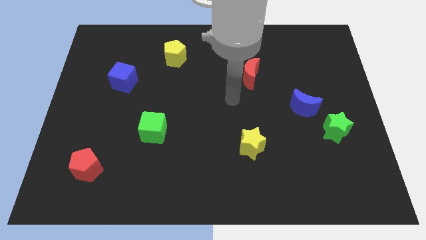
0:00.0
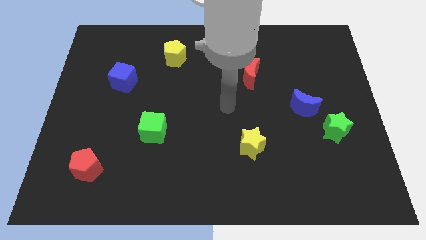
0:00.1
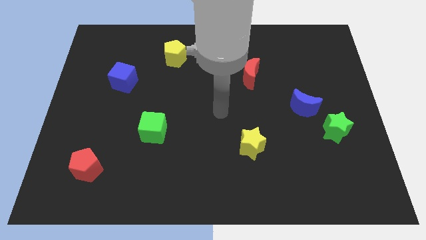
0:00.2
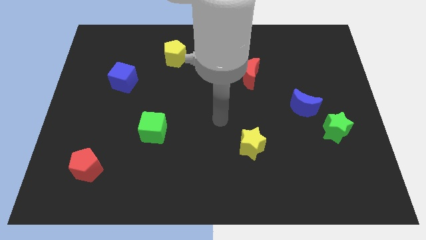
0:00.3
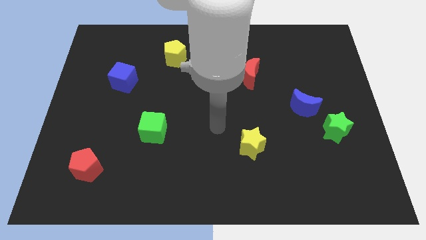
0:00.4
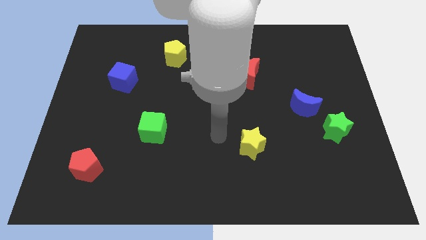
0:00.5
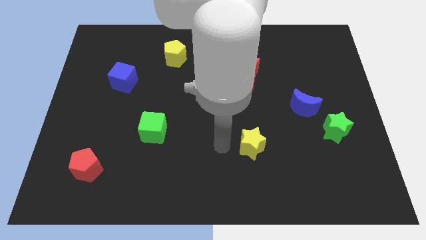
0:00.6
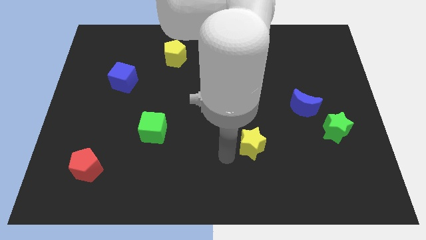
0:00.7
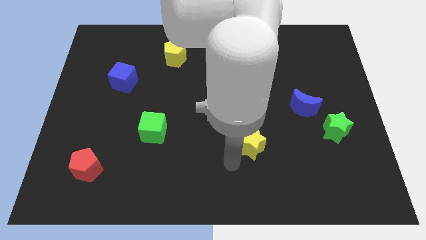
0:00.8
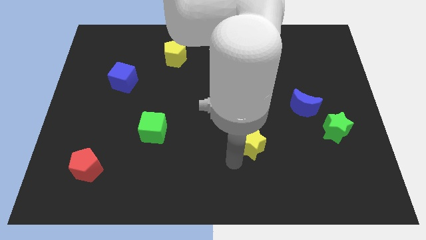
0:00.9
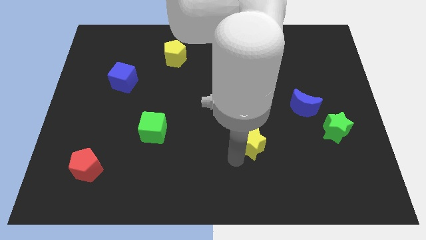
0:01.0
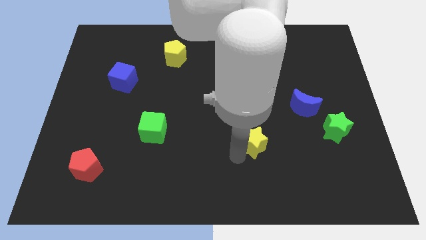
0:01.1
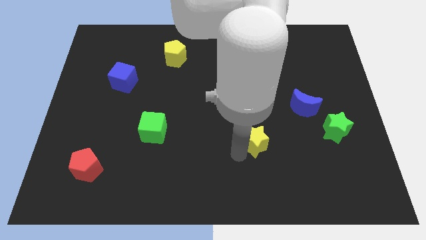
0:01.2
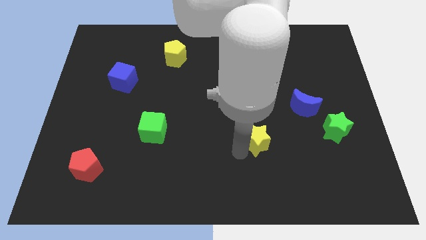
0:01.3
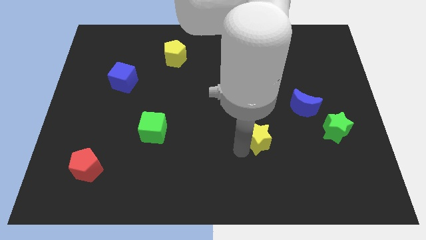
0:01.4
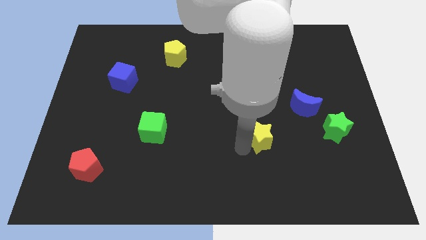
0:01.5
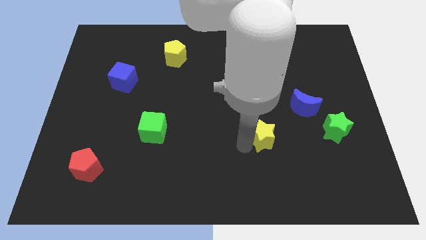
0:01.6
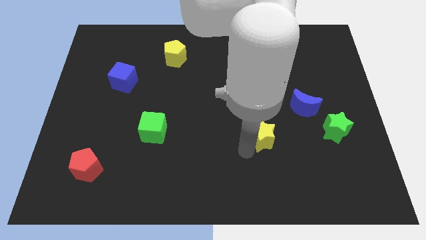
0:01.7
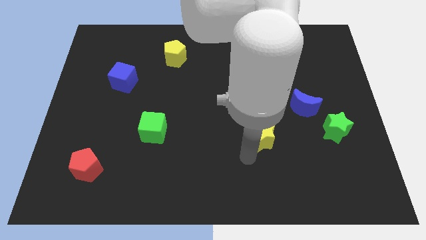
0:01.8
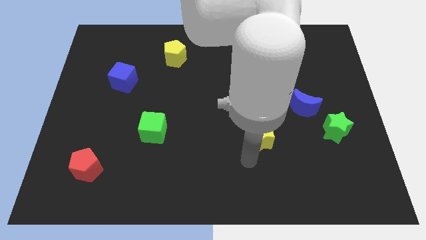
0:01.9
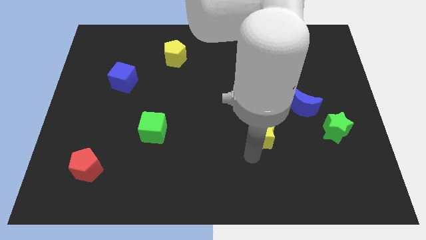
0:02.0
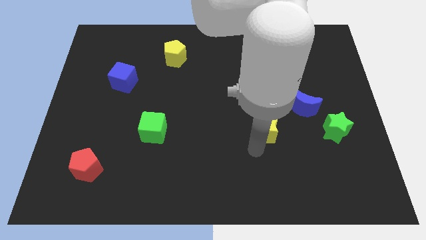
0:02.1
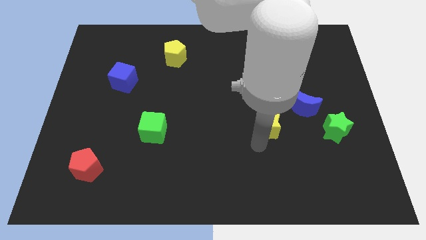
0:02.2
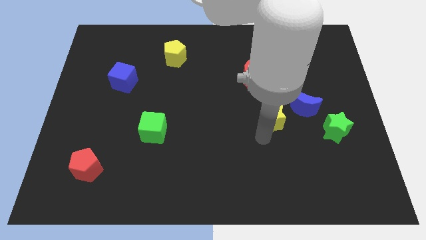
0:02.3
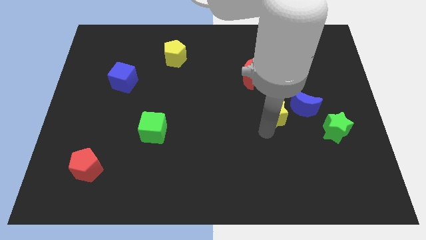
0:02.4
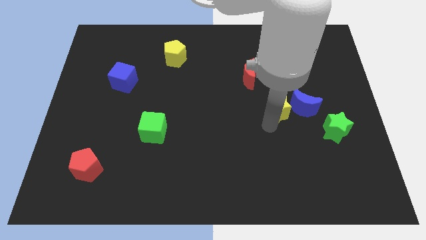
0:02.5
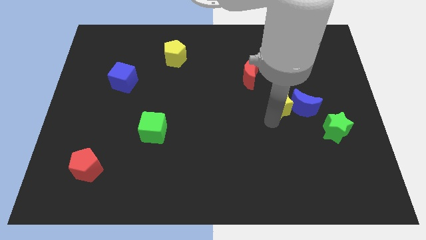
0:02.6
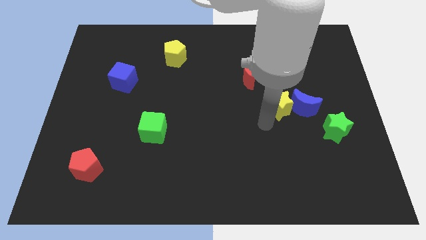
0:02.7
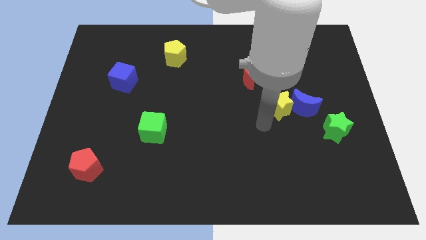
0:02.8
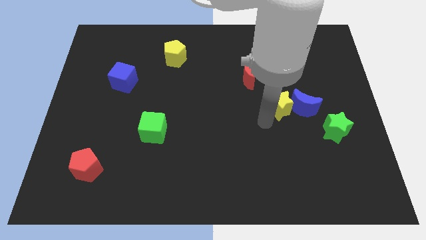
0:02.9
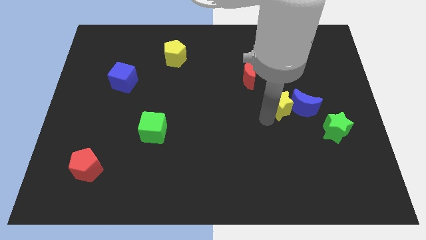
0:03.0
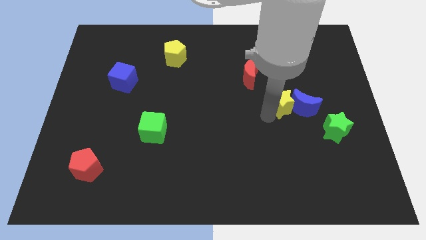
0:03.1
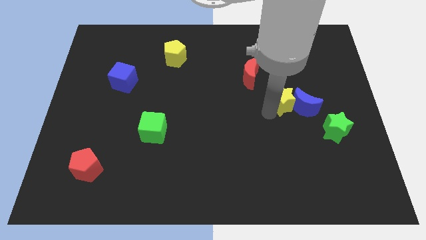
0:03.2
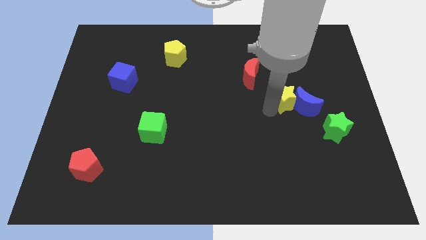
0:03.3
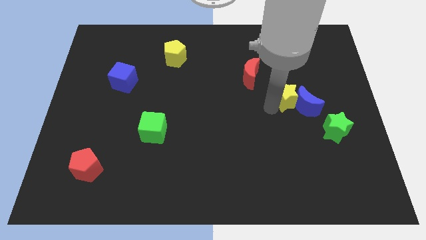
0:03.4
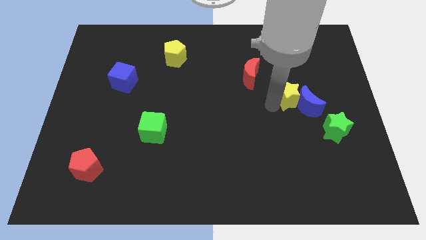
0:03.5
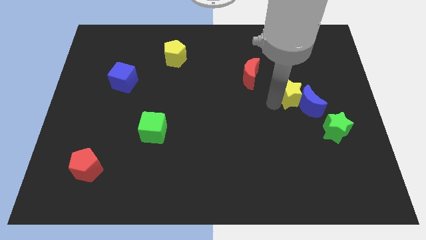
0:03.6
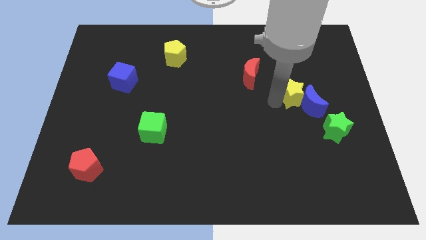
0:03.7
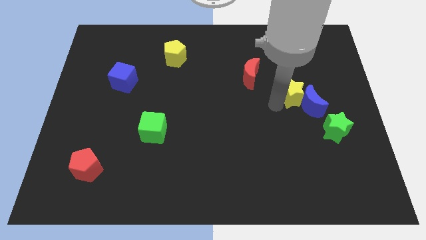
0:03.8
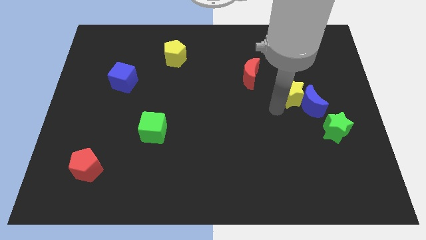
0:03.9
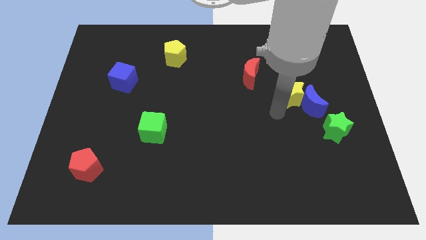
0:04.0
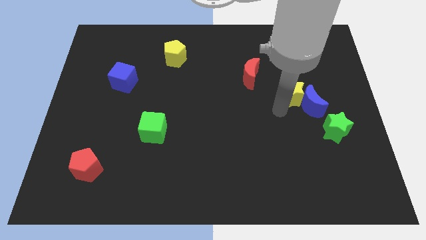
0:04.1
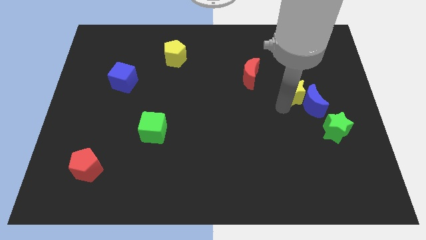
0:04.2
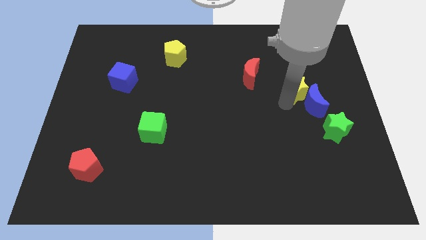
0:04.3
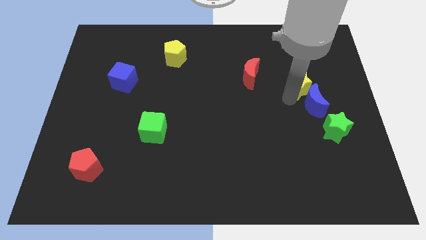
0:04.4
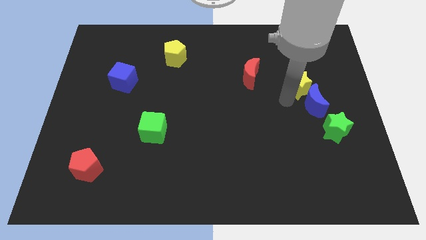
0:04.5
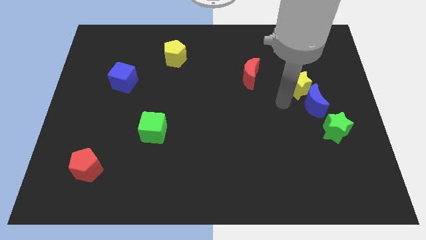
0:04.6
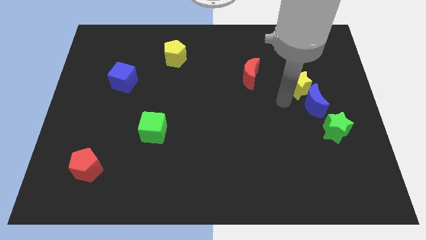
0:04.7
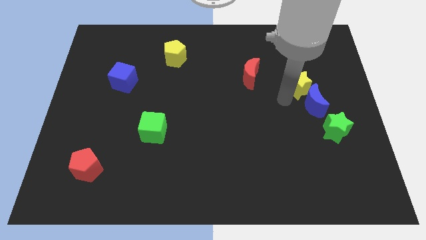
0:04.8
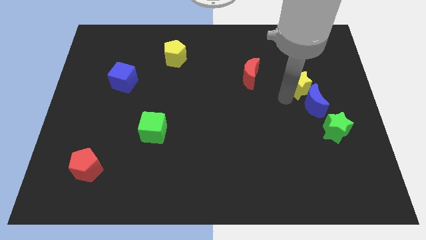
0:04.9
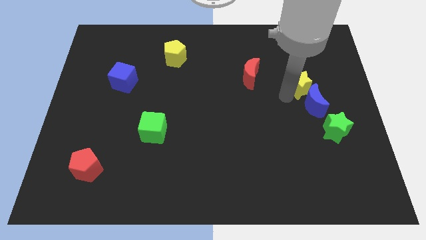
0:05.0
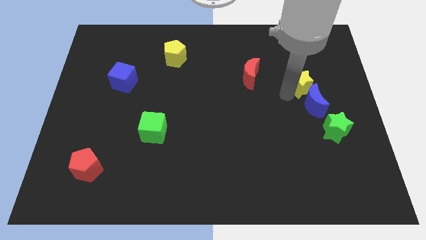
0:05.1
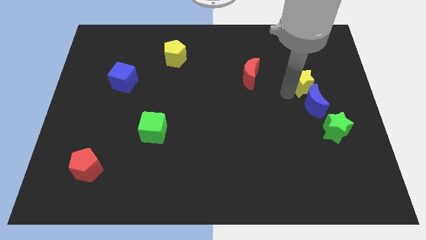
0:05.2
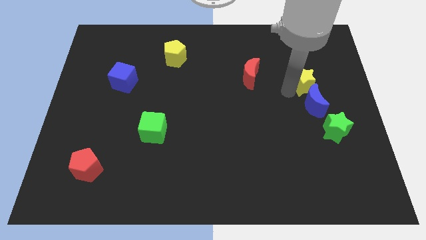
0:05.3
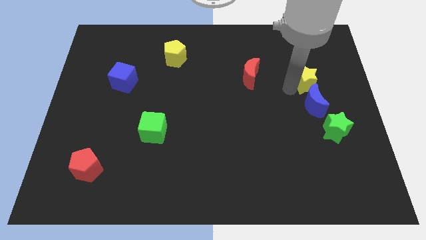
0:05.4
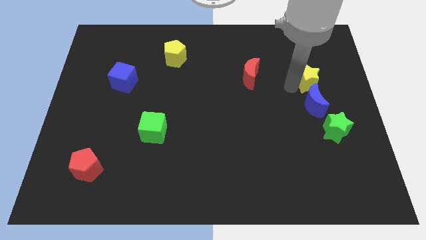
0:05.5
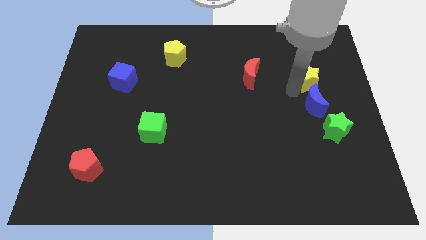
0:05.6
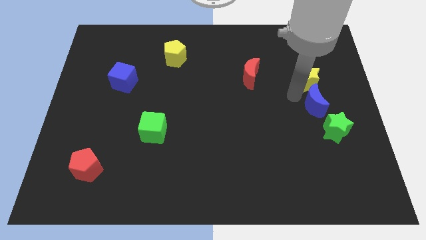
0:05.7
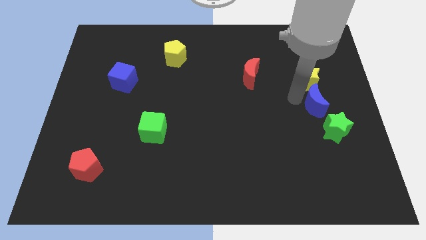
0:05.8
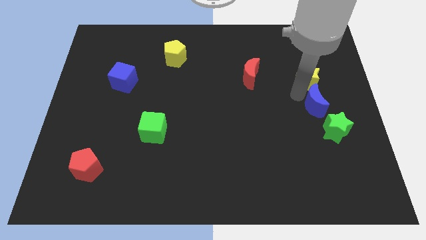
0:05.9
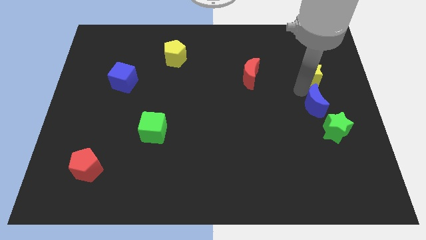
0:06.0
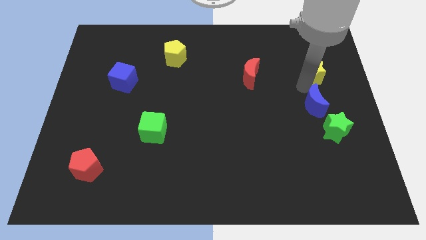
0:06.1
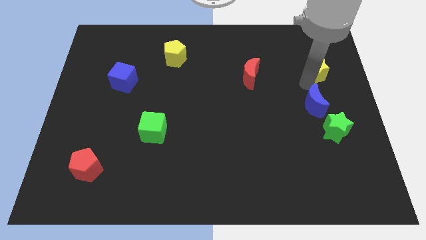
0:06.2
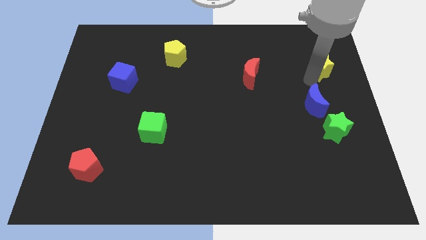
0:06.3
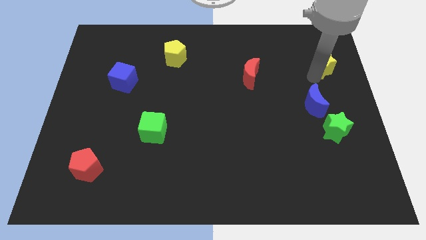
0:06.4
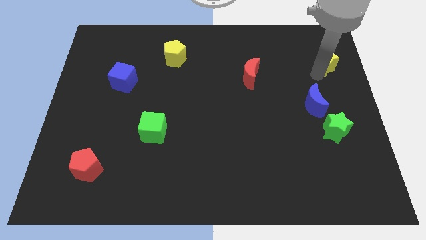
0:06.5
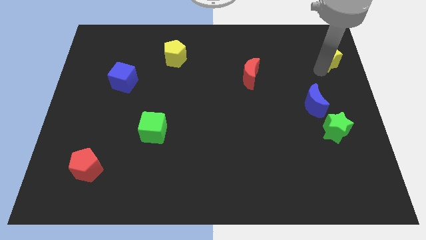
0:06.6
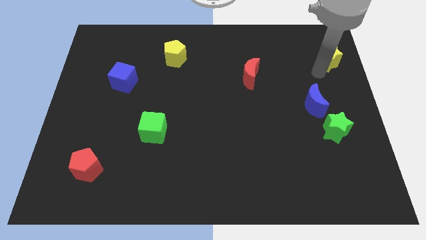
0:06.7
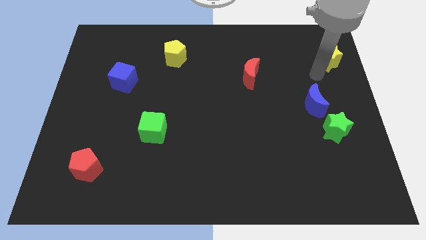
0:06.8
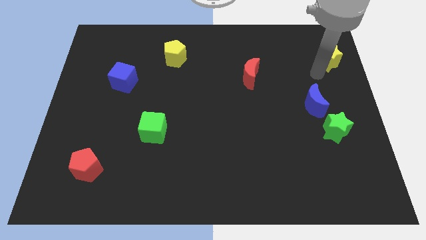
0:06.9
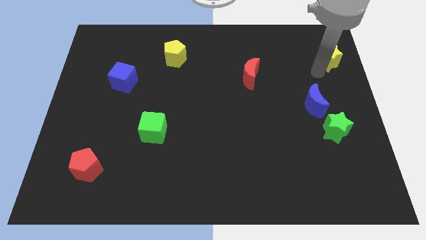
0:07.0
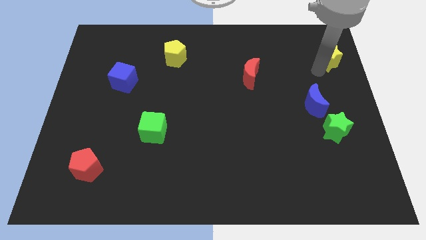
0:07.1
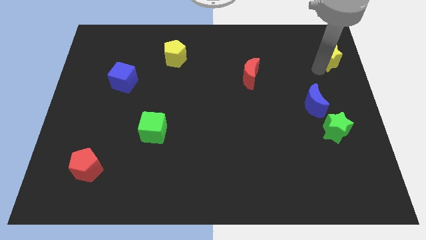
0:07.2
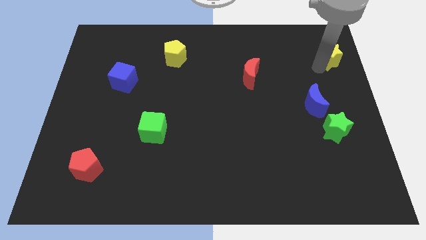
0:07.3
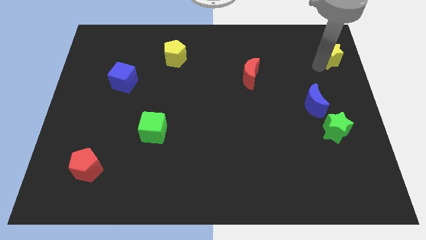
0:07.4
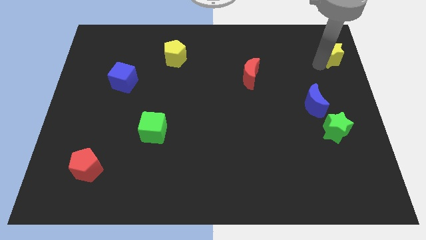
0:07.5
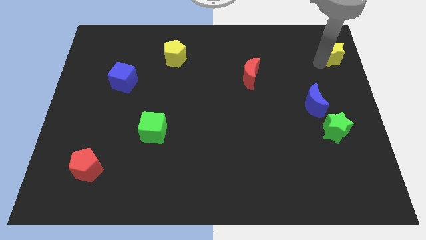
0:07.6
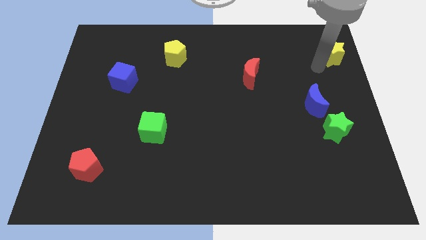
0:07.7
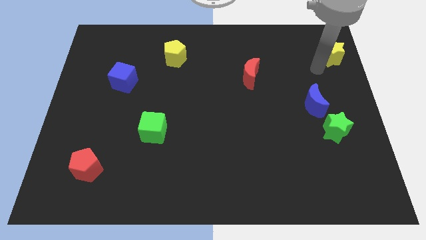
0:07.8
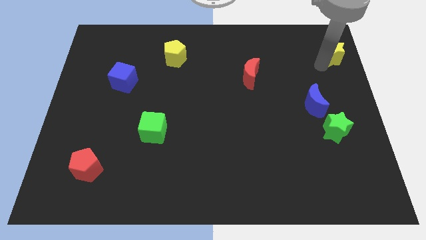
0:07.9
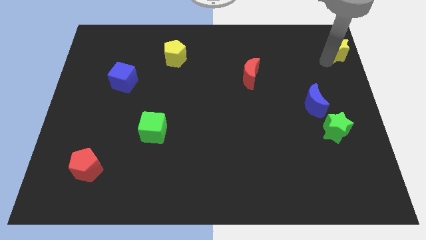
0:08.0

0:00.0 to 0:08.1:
move the yellow star to the top right
